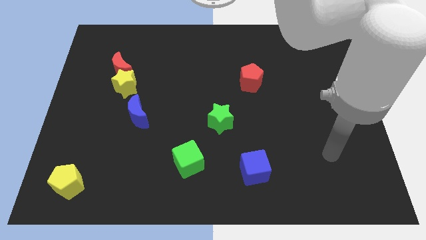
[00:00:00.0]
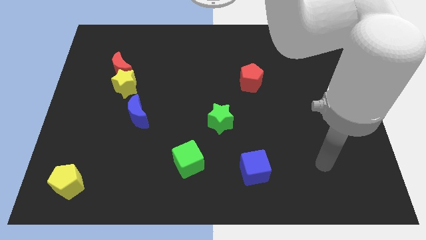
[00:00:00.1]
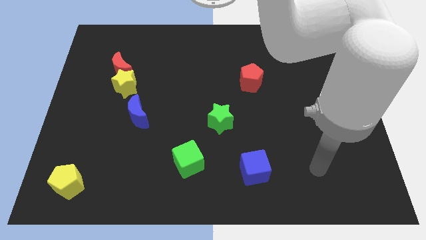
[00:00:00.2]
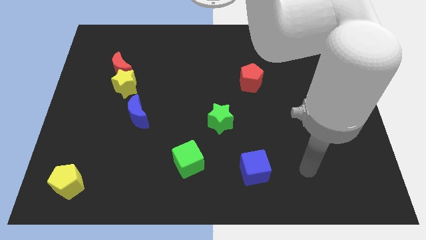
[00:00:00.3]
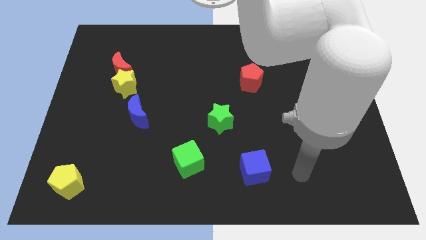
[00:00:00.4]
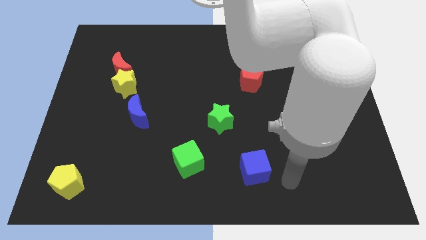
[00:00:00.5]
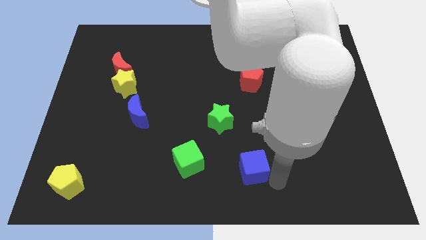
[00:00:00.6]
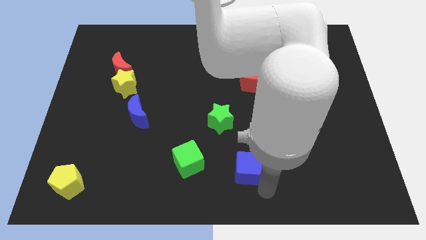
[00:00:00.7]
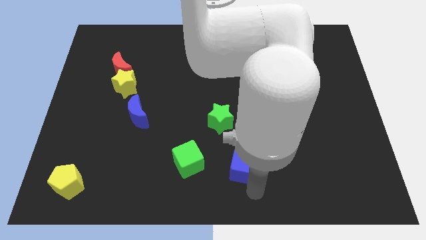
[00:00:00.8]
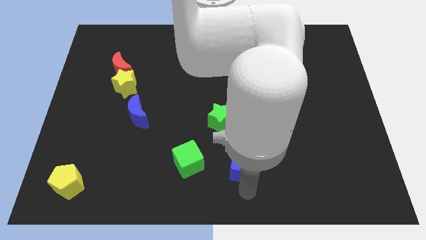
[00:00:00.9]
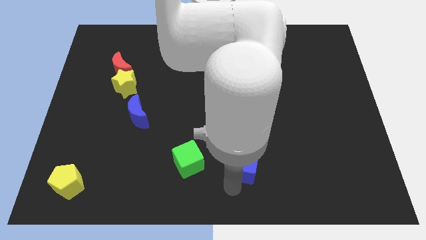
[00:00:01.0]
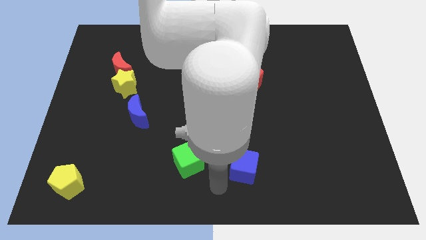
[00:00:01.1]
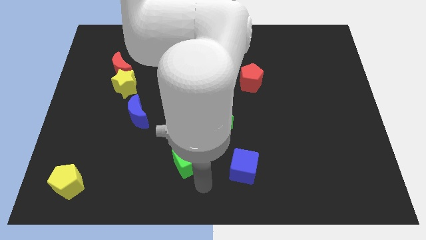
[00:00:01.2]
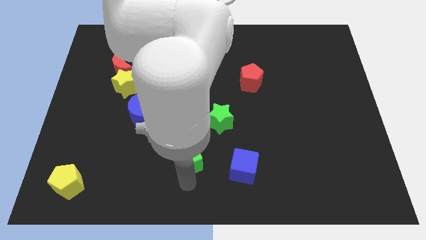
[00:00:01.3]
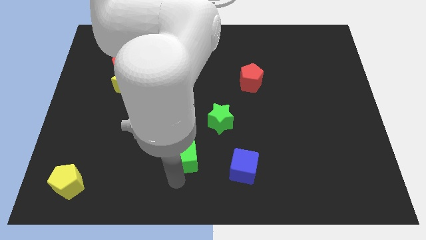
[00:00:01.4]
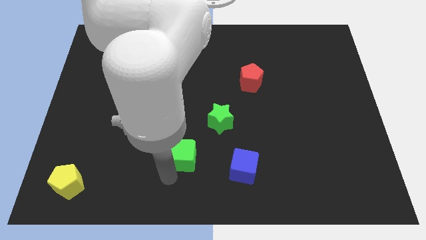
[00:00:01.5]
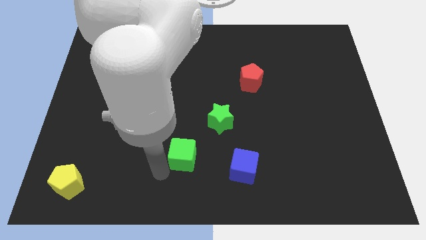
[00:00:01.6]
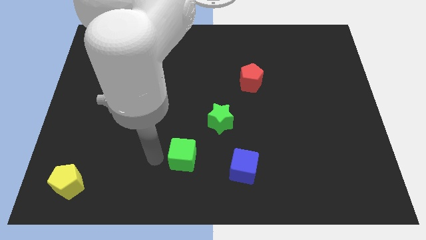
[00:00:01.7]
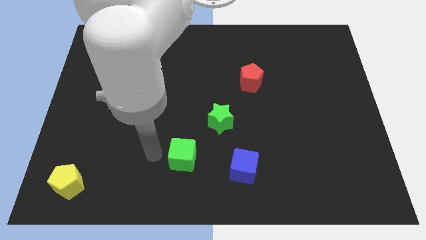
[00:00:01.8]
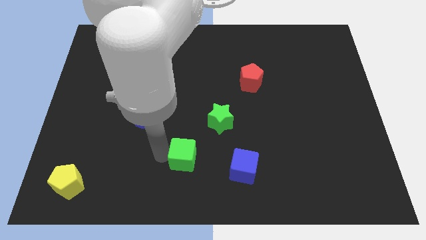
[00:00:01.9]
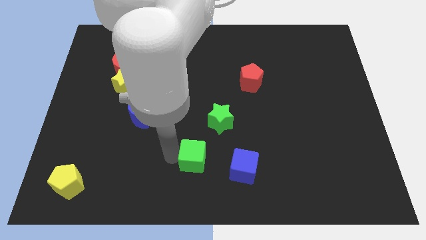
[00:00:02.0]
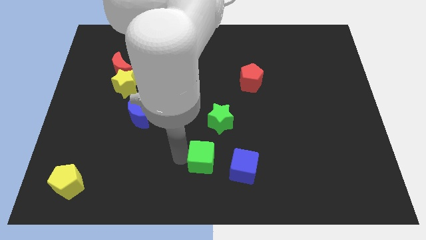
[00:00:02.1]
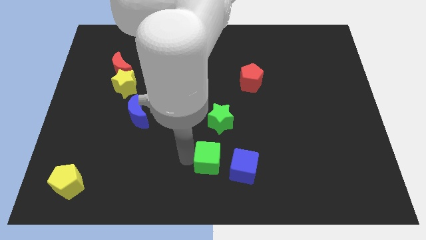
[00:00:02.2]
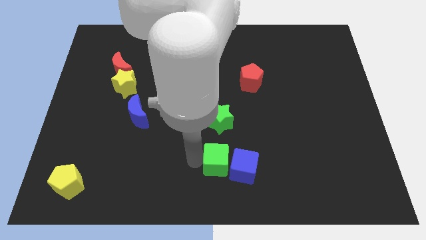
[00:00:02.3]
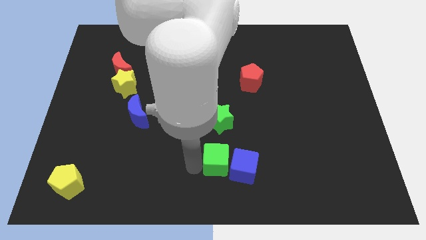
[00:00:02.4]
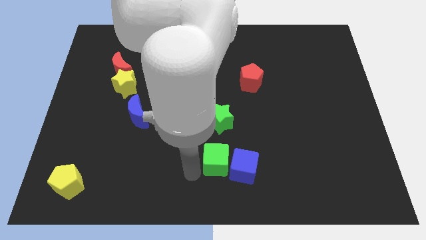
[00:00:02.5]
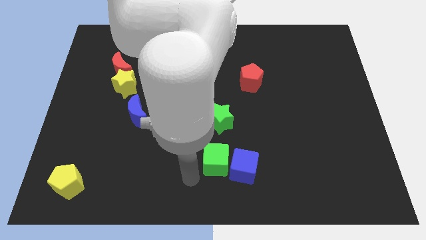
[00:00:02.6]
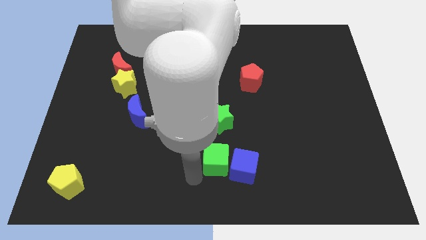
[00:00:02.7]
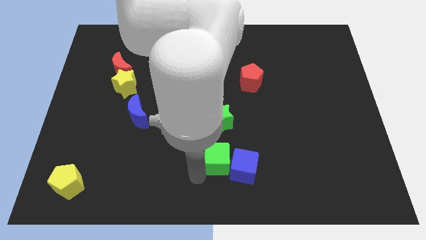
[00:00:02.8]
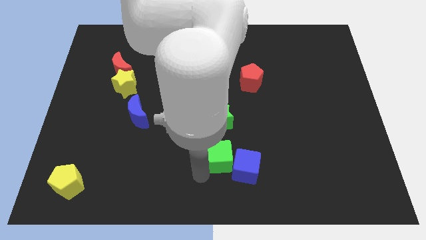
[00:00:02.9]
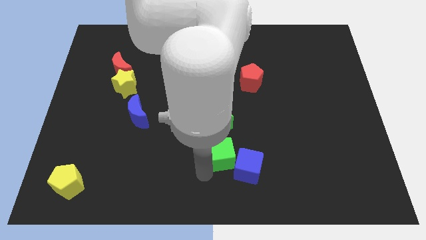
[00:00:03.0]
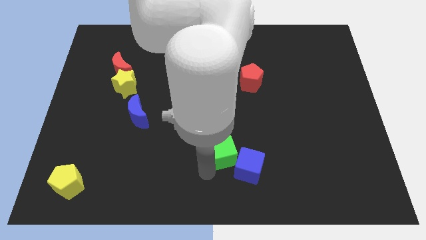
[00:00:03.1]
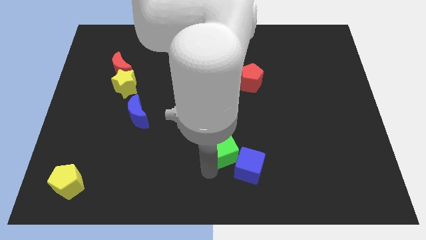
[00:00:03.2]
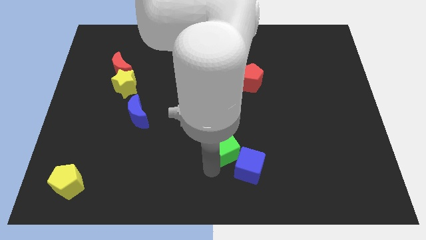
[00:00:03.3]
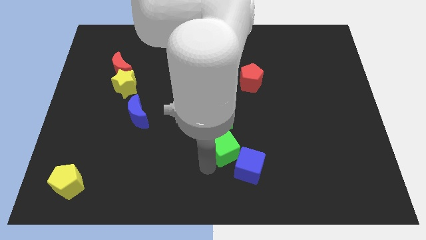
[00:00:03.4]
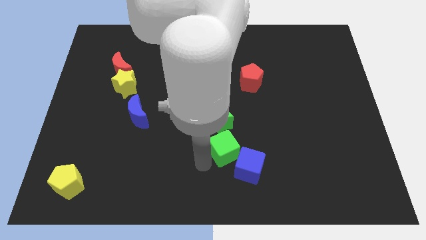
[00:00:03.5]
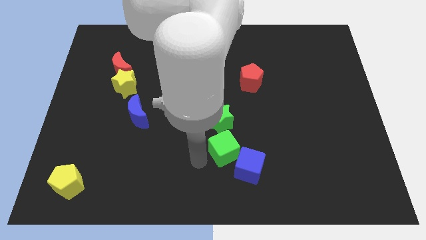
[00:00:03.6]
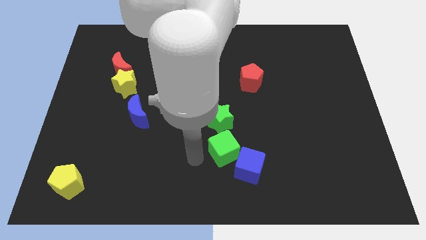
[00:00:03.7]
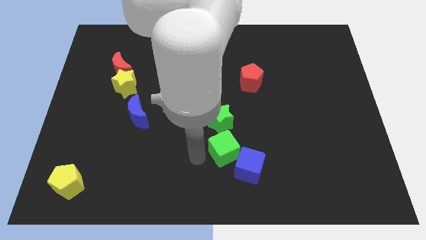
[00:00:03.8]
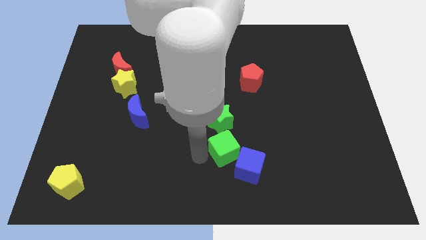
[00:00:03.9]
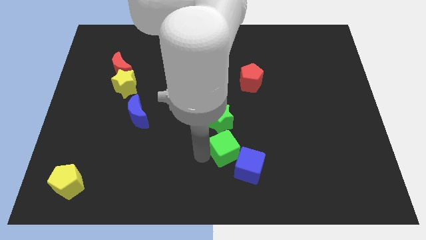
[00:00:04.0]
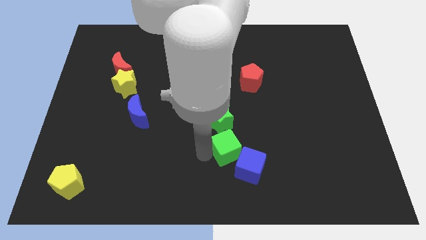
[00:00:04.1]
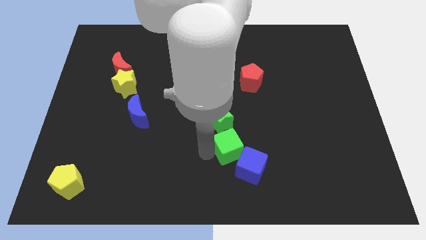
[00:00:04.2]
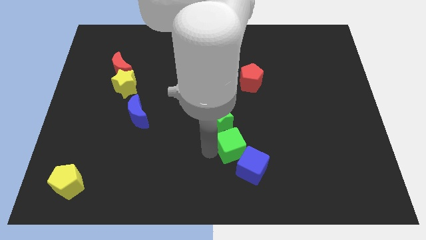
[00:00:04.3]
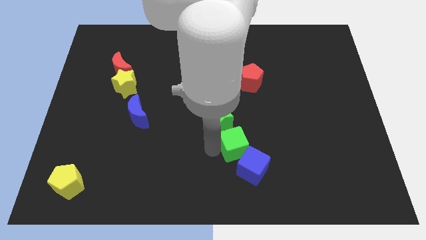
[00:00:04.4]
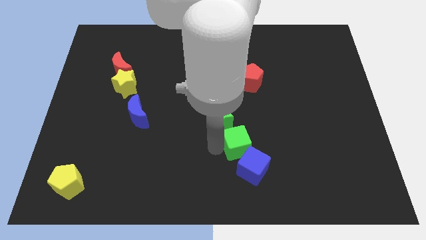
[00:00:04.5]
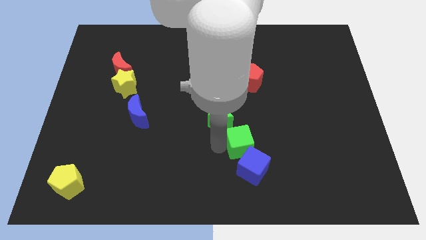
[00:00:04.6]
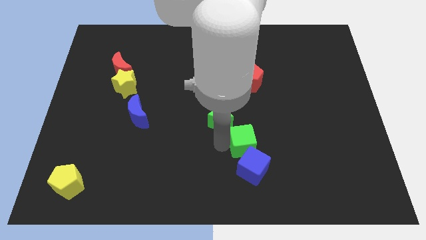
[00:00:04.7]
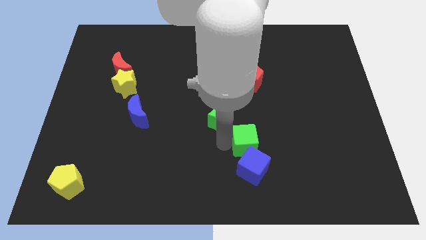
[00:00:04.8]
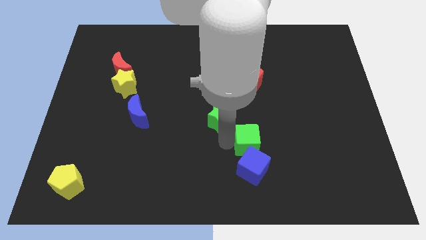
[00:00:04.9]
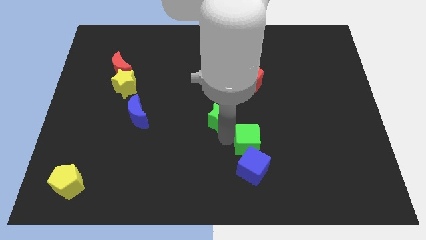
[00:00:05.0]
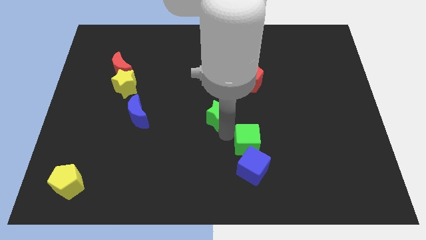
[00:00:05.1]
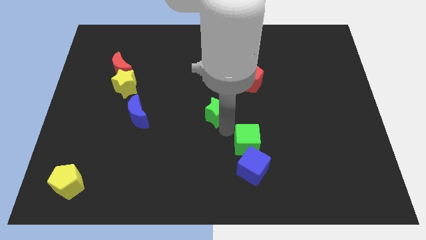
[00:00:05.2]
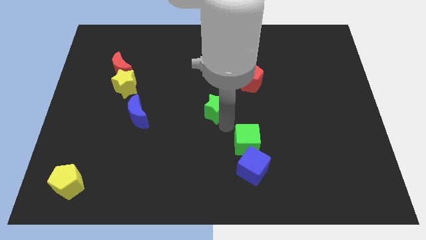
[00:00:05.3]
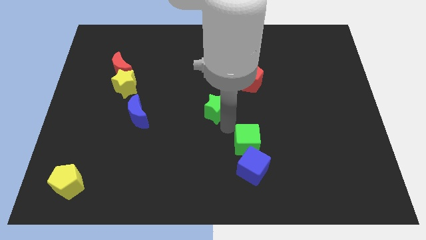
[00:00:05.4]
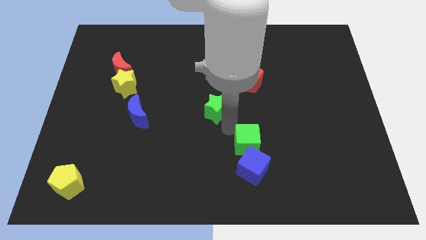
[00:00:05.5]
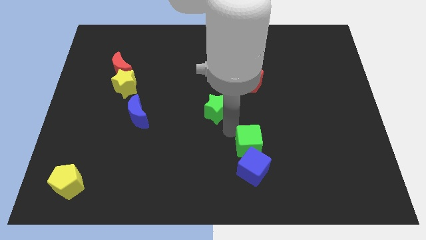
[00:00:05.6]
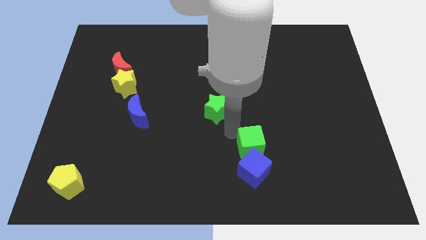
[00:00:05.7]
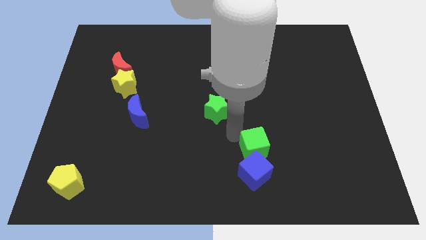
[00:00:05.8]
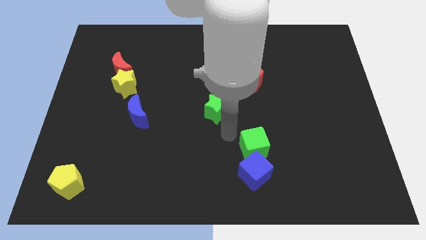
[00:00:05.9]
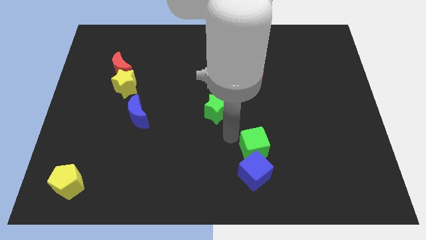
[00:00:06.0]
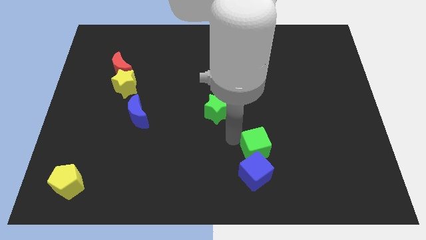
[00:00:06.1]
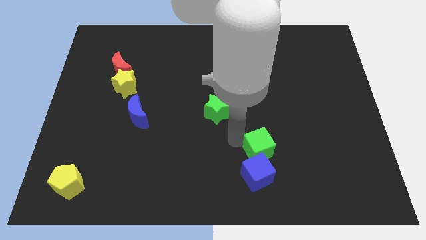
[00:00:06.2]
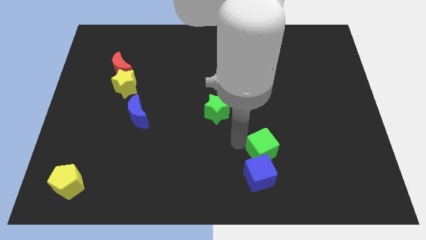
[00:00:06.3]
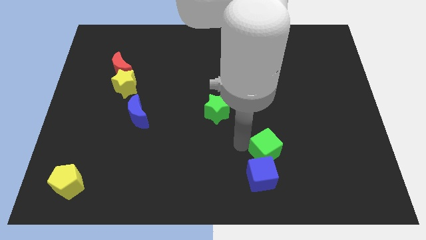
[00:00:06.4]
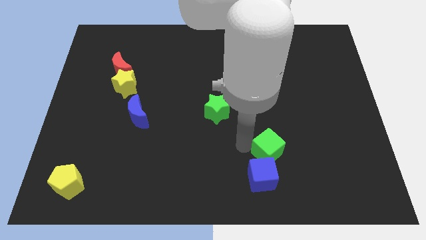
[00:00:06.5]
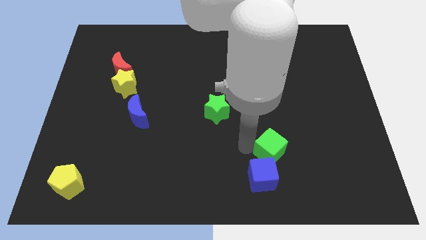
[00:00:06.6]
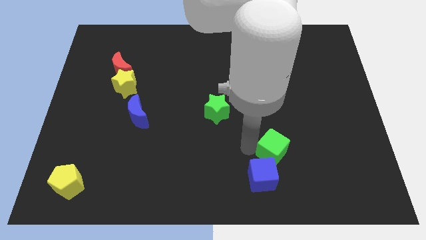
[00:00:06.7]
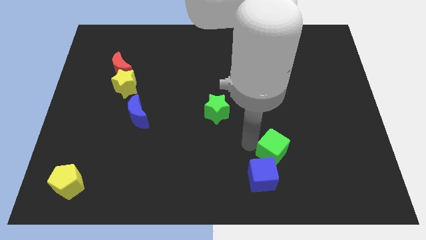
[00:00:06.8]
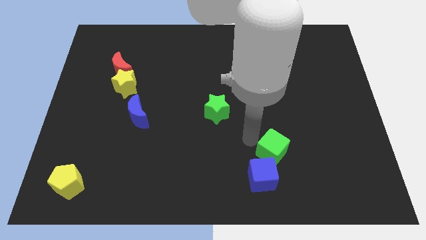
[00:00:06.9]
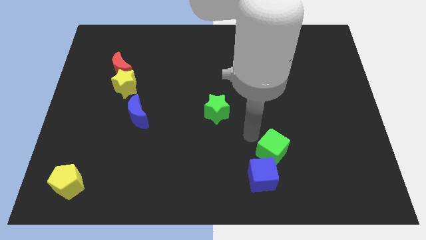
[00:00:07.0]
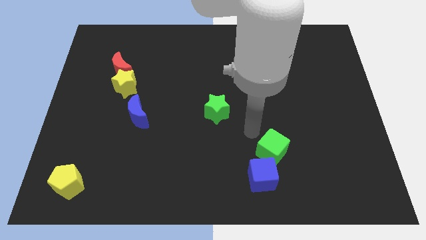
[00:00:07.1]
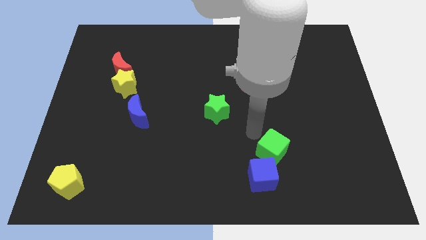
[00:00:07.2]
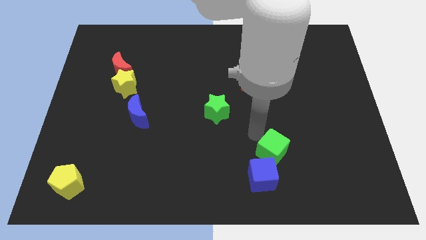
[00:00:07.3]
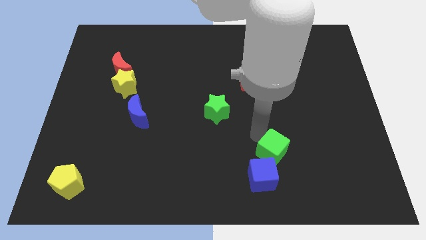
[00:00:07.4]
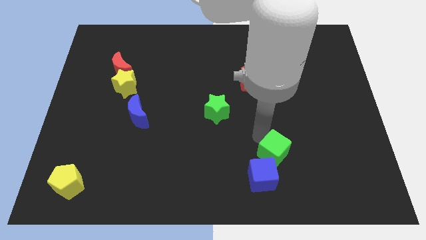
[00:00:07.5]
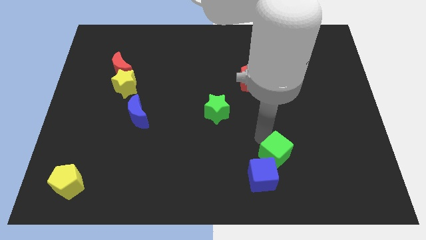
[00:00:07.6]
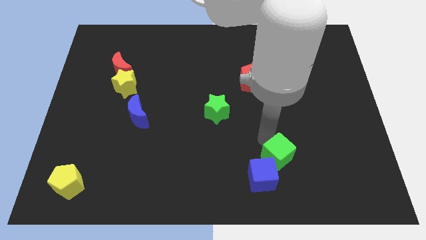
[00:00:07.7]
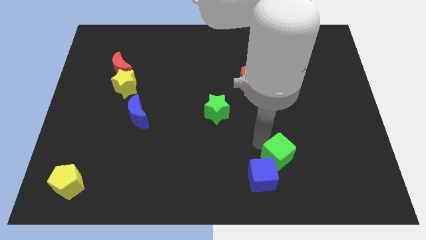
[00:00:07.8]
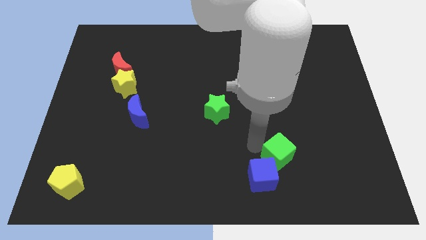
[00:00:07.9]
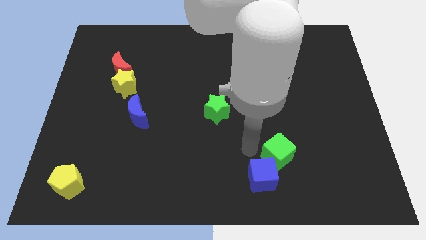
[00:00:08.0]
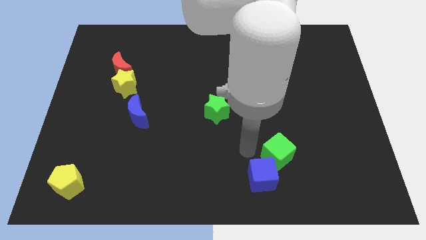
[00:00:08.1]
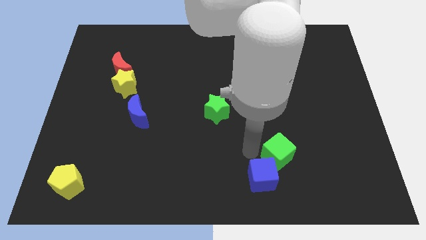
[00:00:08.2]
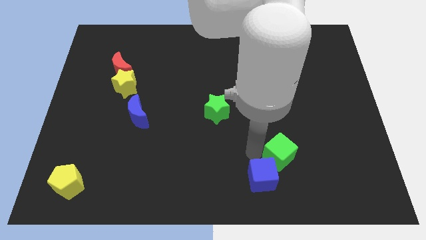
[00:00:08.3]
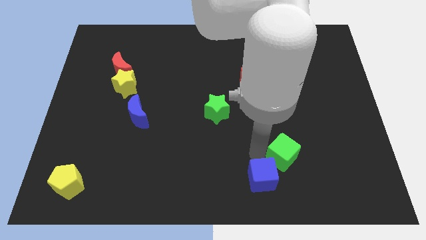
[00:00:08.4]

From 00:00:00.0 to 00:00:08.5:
slide the green cube to the right
